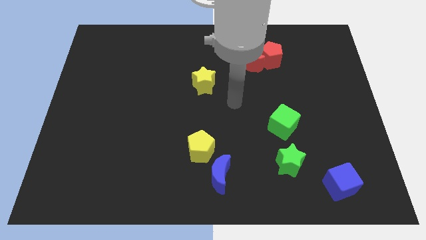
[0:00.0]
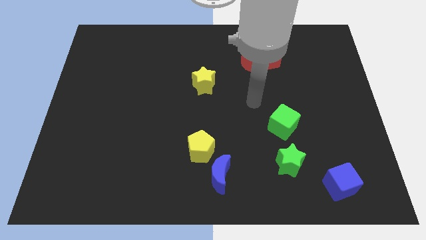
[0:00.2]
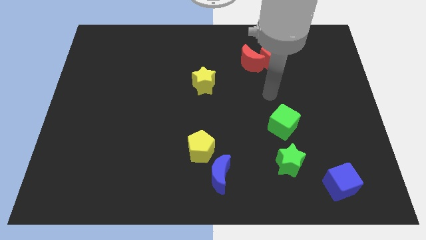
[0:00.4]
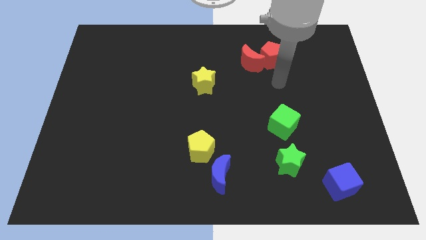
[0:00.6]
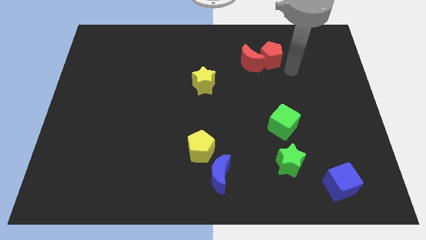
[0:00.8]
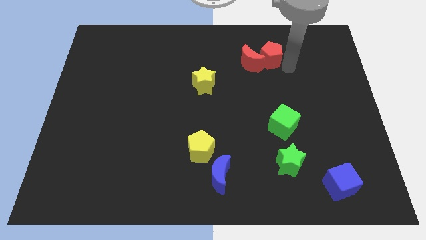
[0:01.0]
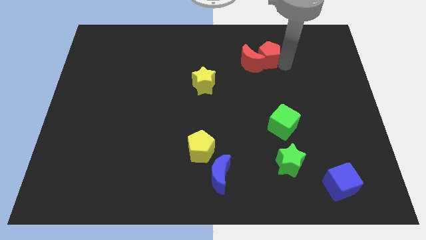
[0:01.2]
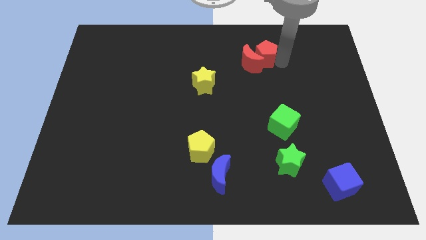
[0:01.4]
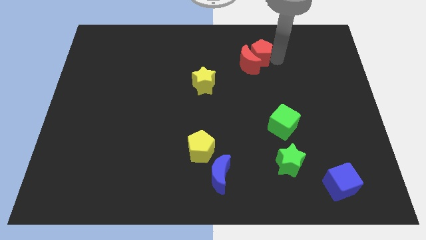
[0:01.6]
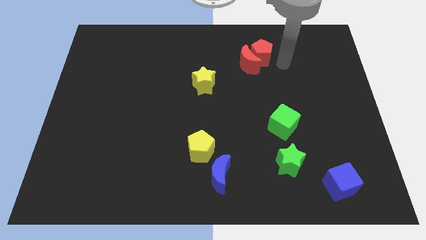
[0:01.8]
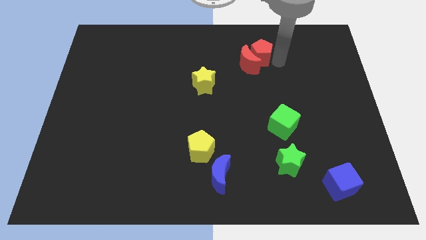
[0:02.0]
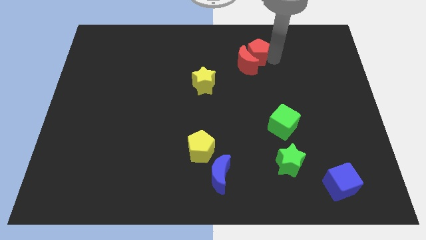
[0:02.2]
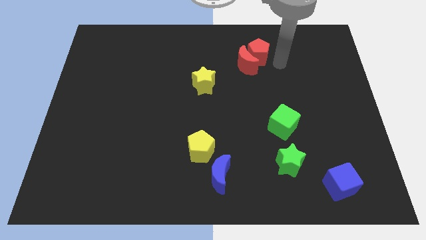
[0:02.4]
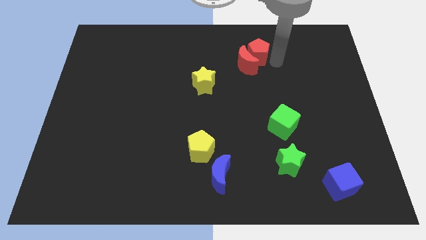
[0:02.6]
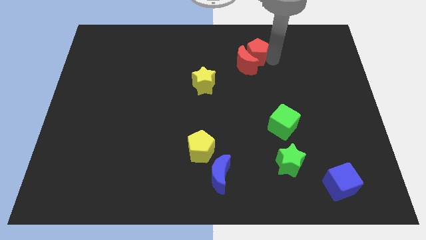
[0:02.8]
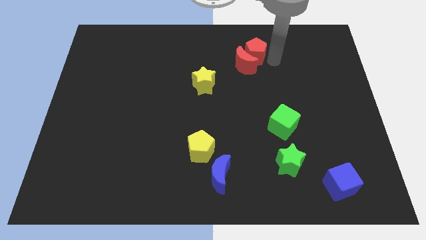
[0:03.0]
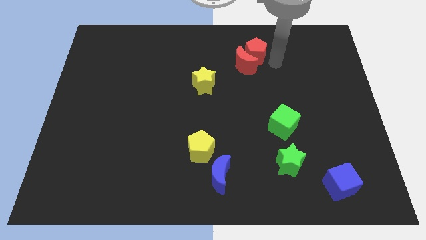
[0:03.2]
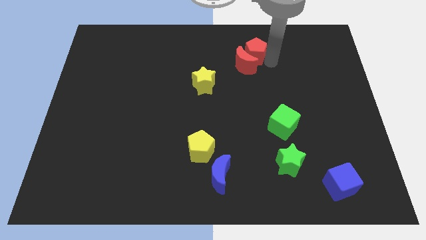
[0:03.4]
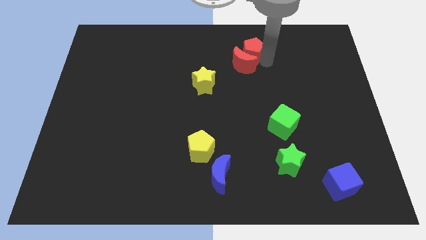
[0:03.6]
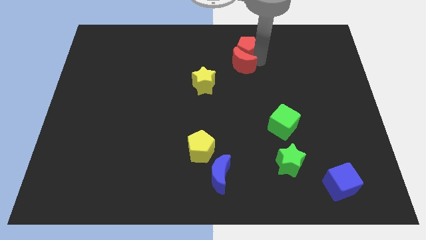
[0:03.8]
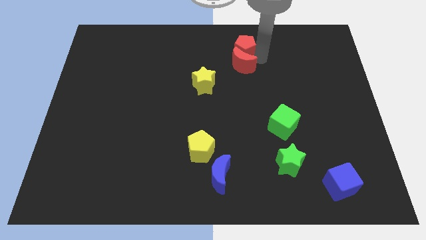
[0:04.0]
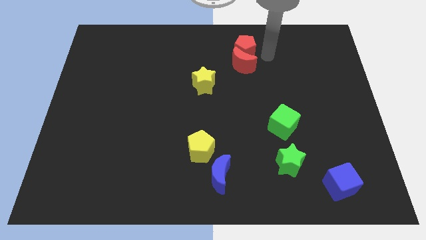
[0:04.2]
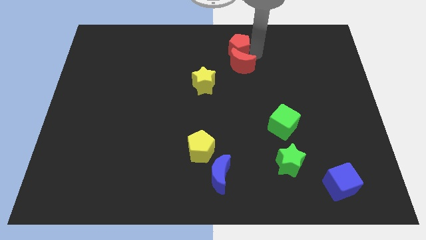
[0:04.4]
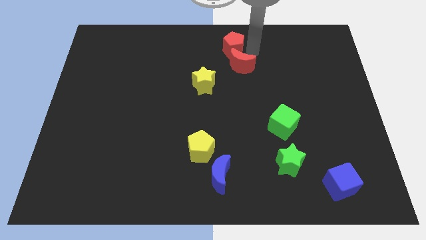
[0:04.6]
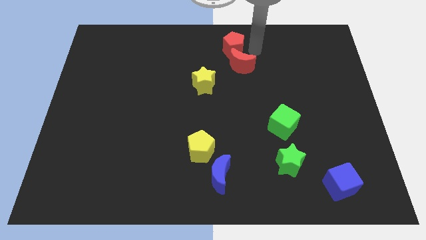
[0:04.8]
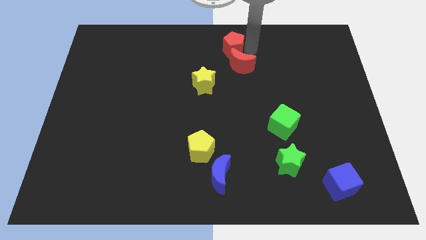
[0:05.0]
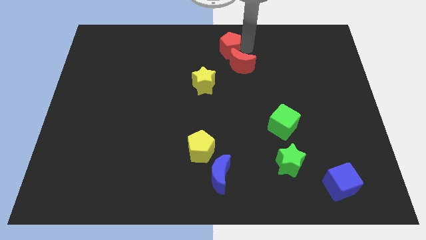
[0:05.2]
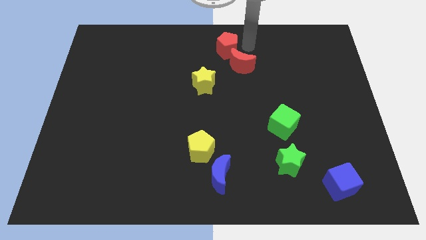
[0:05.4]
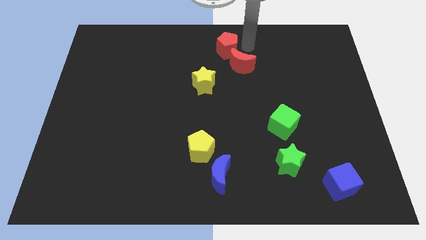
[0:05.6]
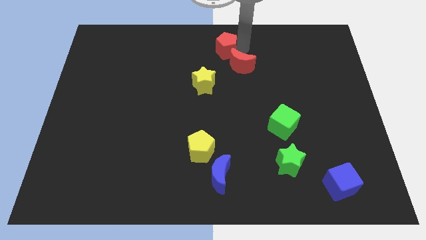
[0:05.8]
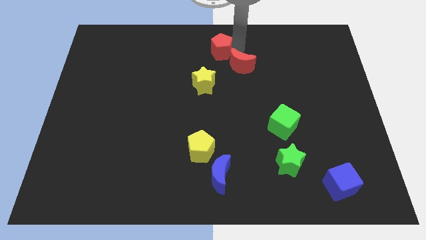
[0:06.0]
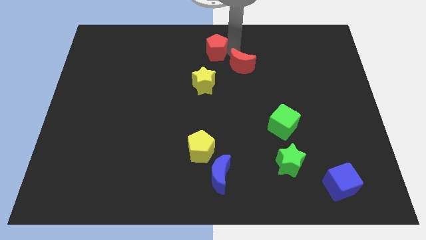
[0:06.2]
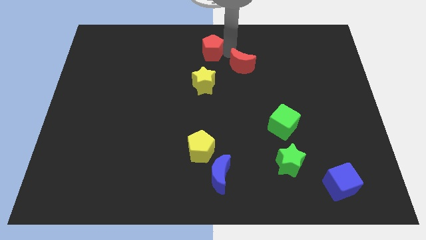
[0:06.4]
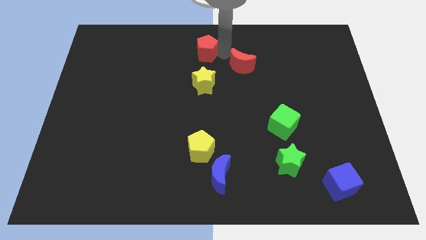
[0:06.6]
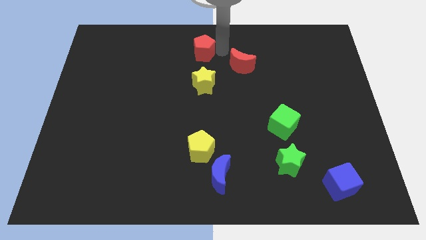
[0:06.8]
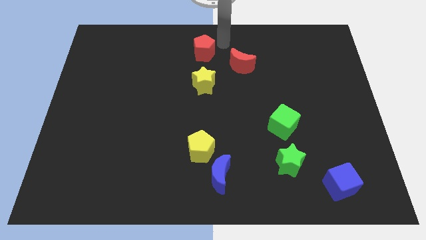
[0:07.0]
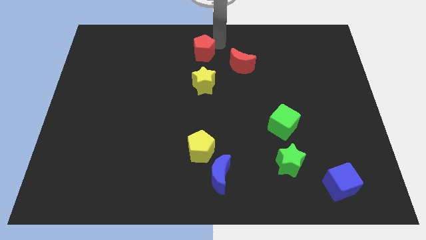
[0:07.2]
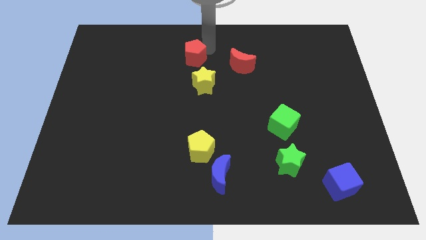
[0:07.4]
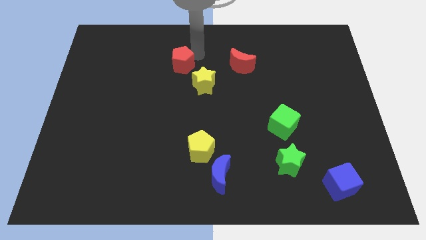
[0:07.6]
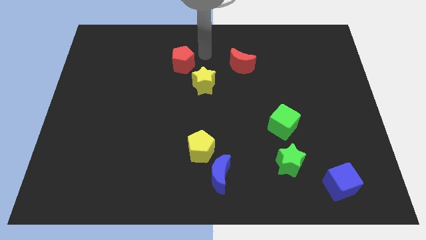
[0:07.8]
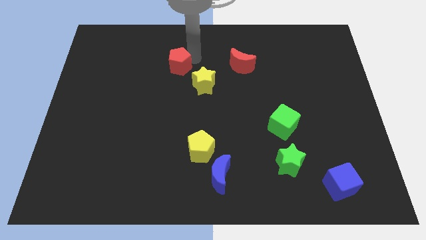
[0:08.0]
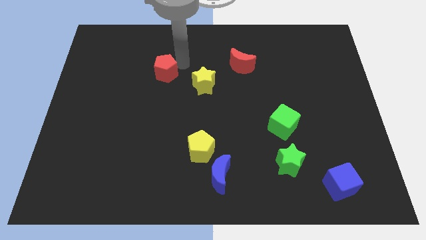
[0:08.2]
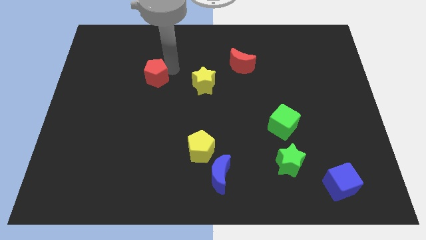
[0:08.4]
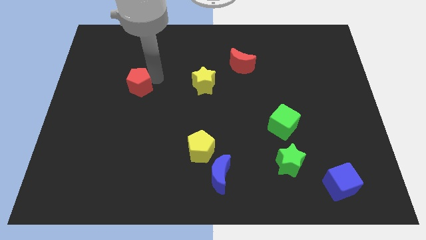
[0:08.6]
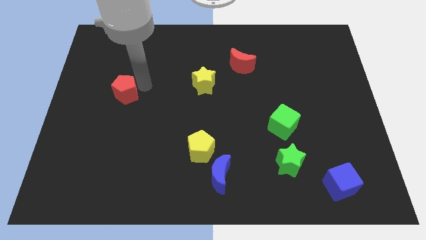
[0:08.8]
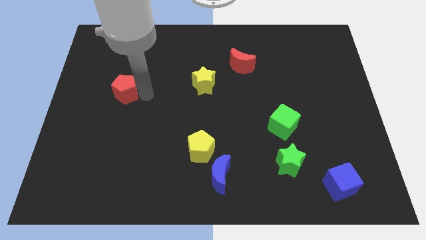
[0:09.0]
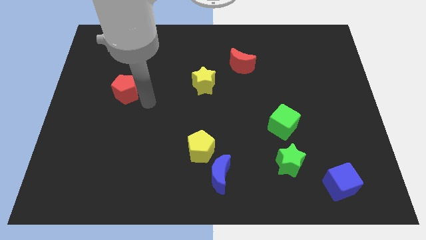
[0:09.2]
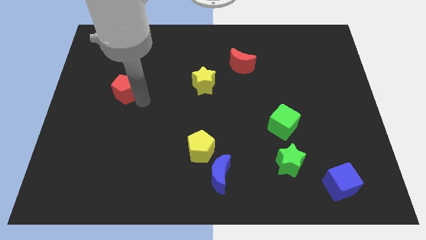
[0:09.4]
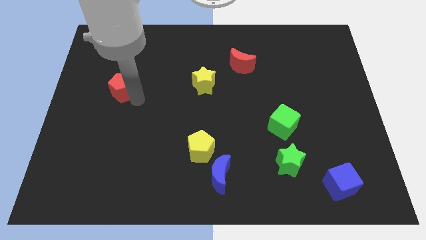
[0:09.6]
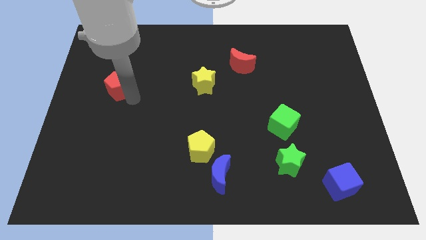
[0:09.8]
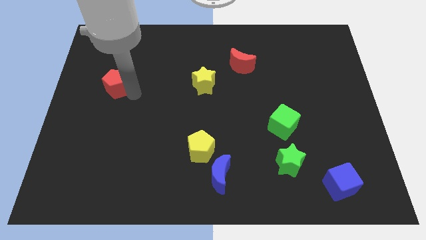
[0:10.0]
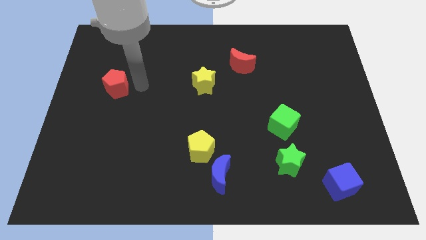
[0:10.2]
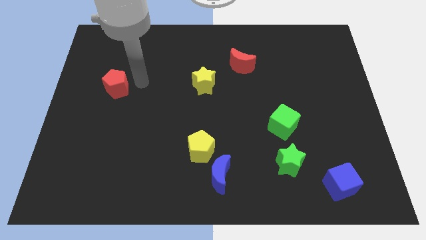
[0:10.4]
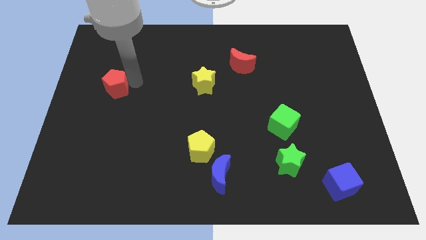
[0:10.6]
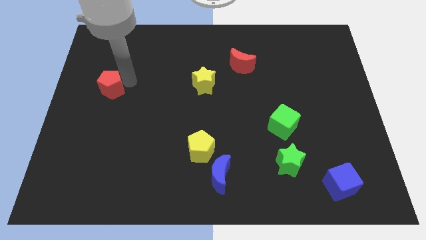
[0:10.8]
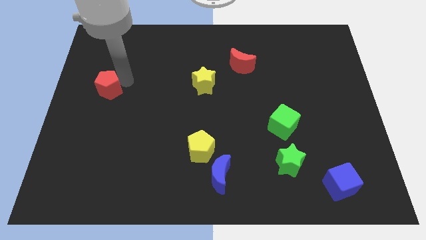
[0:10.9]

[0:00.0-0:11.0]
slide the red pentagon to the left side

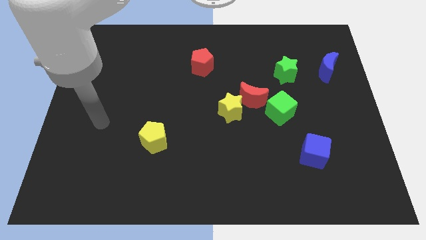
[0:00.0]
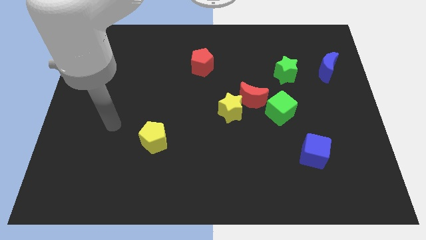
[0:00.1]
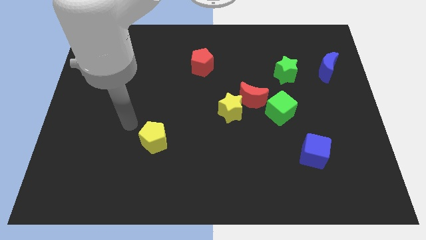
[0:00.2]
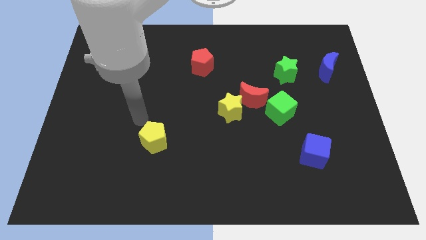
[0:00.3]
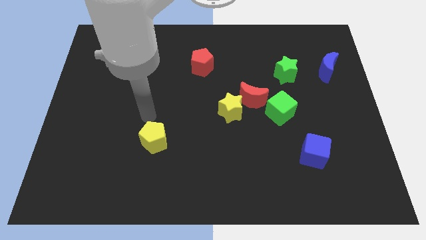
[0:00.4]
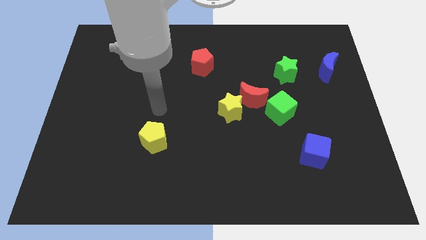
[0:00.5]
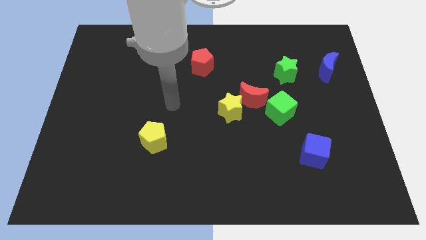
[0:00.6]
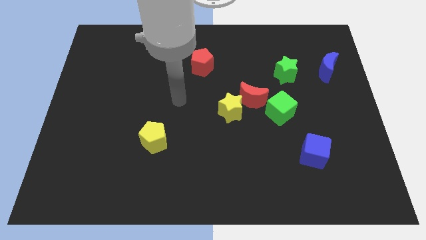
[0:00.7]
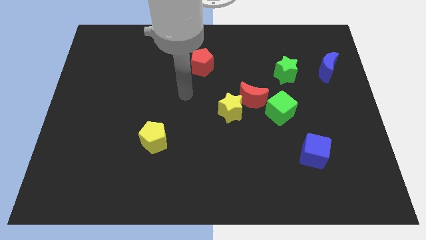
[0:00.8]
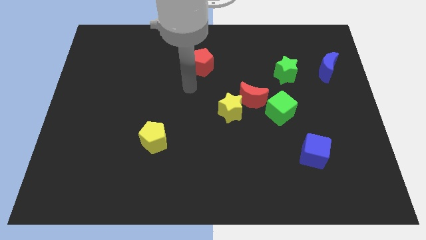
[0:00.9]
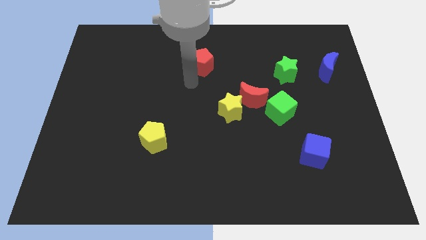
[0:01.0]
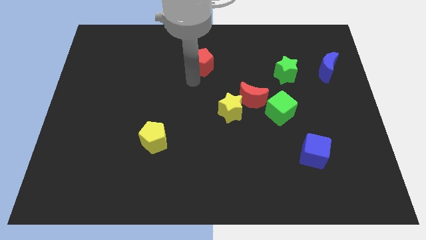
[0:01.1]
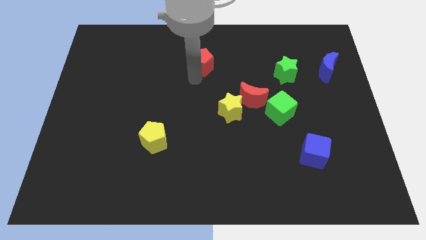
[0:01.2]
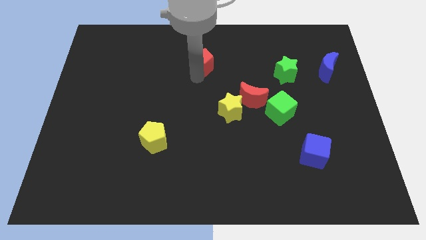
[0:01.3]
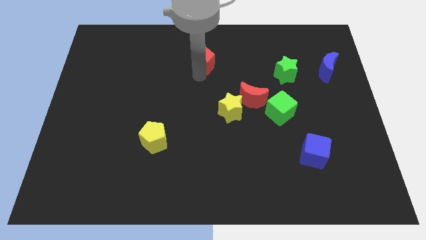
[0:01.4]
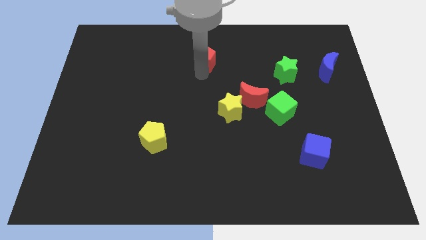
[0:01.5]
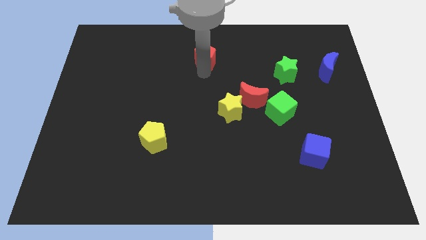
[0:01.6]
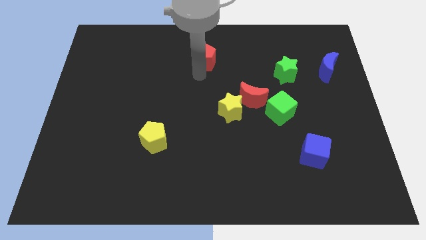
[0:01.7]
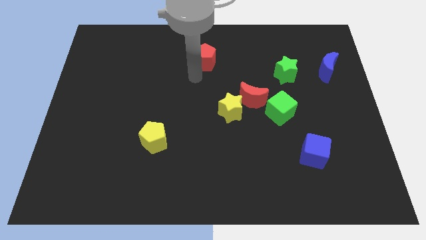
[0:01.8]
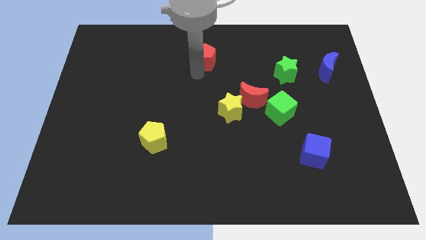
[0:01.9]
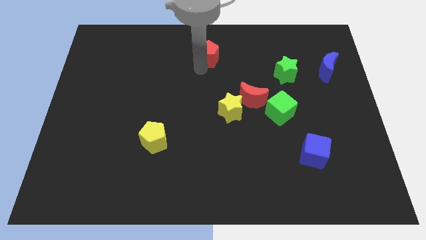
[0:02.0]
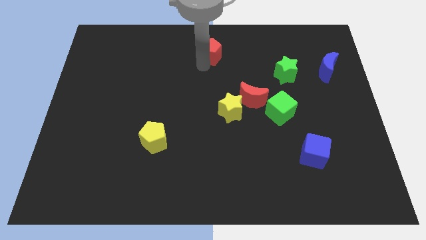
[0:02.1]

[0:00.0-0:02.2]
move the red pentagon to the towards your base
